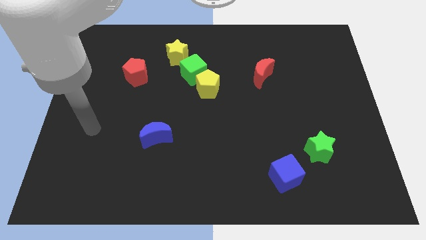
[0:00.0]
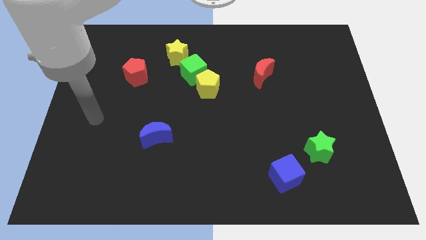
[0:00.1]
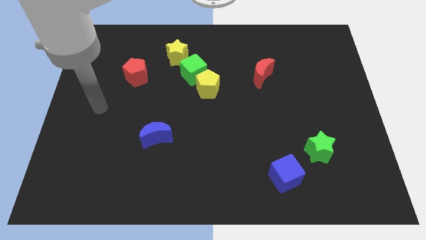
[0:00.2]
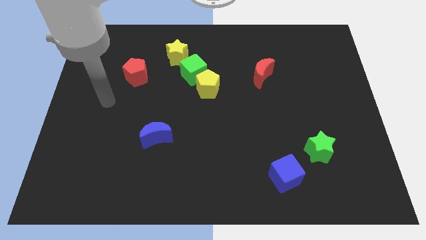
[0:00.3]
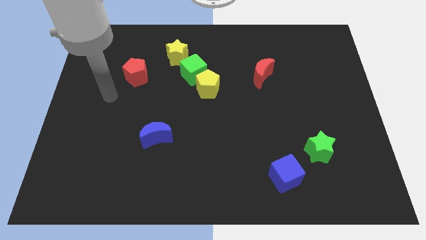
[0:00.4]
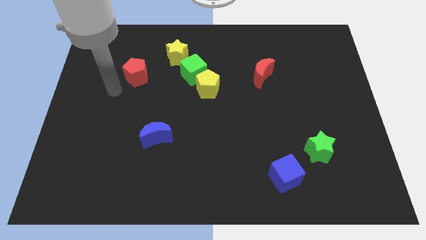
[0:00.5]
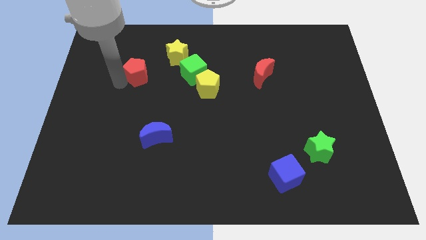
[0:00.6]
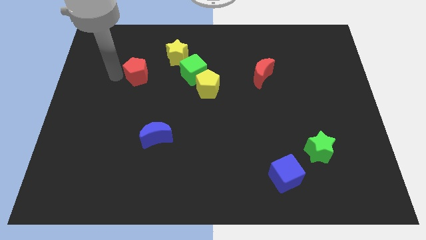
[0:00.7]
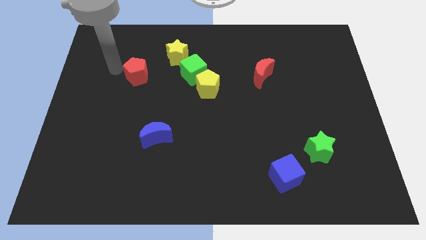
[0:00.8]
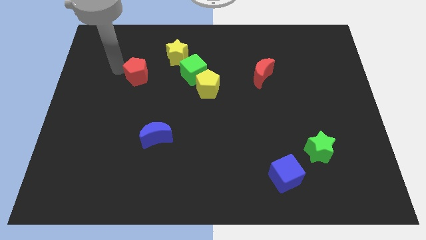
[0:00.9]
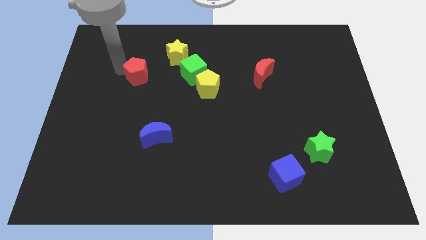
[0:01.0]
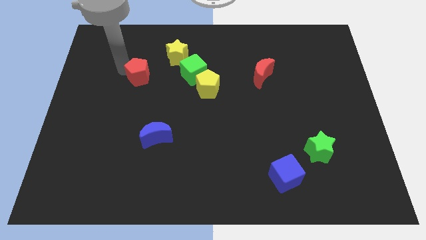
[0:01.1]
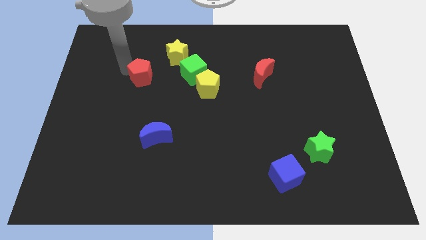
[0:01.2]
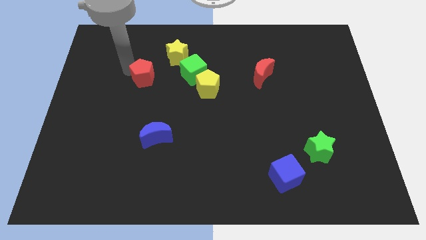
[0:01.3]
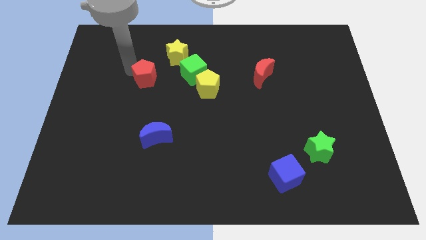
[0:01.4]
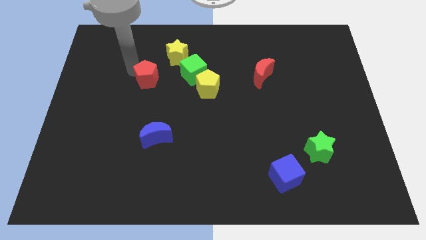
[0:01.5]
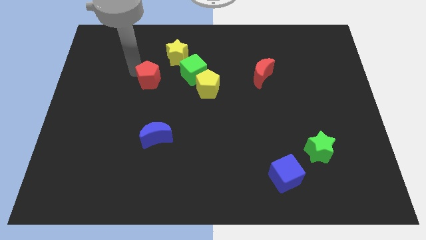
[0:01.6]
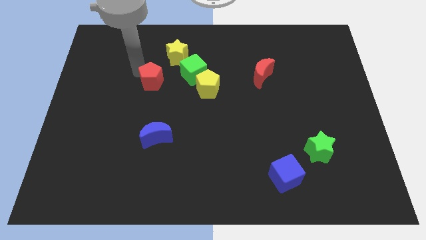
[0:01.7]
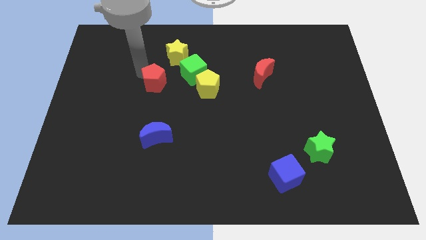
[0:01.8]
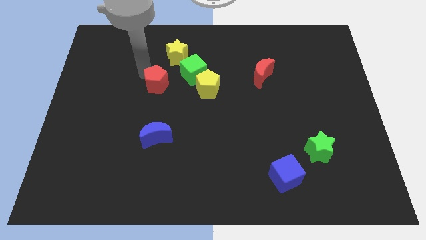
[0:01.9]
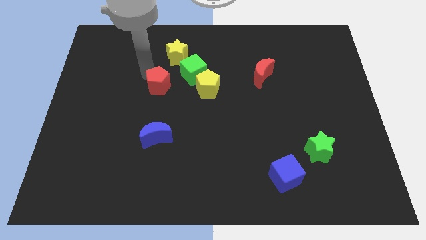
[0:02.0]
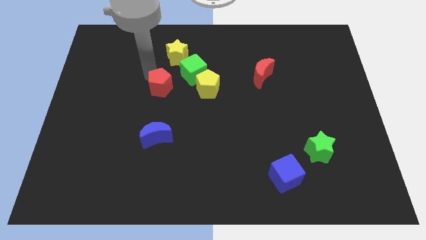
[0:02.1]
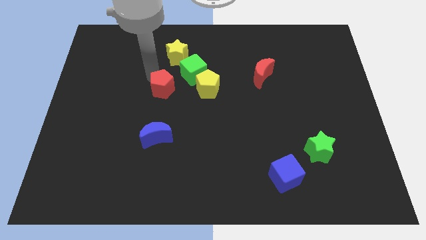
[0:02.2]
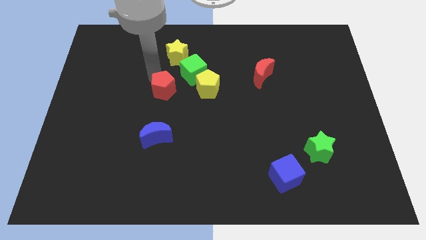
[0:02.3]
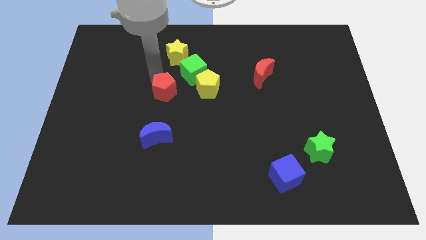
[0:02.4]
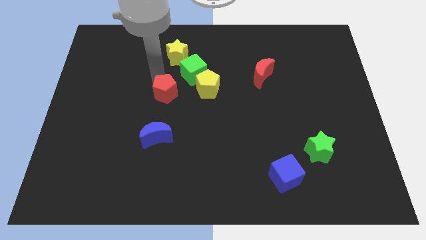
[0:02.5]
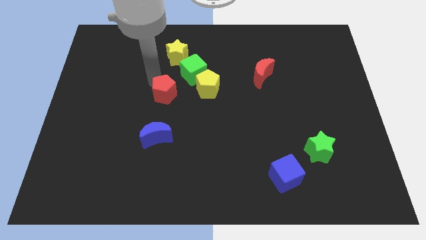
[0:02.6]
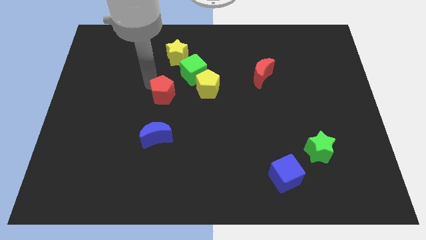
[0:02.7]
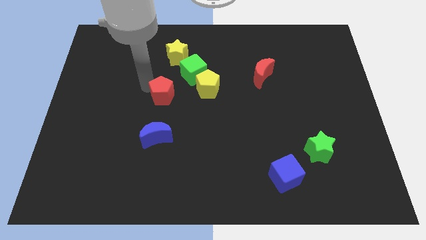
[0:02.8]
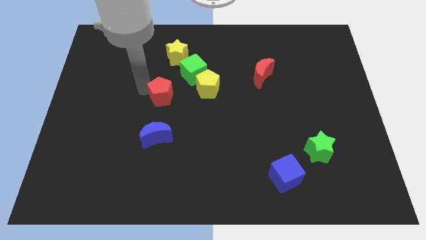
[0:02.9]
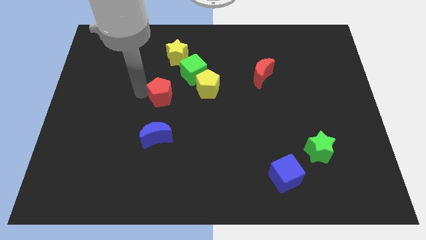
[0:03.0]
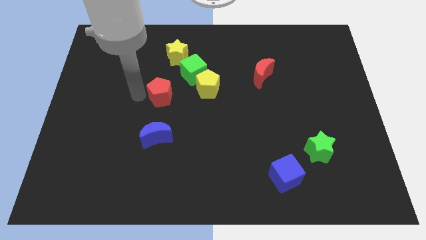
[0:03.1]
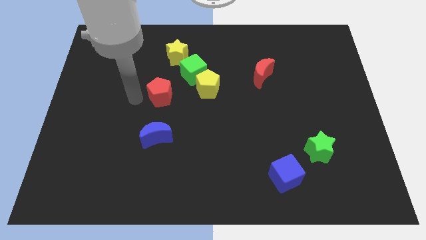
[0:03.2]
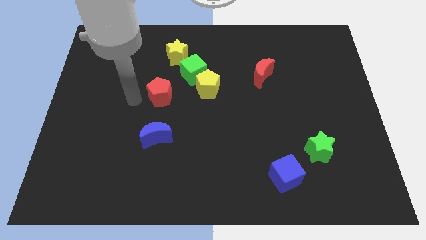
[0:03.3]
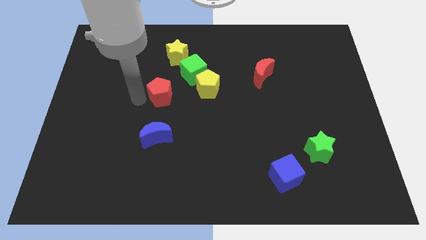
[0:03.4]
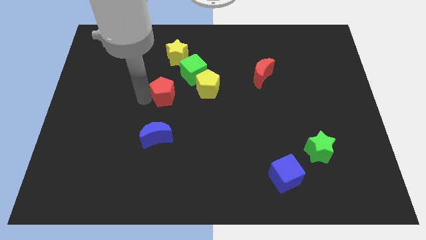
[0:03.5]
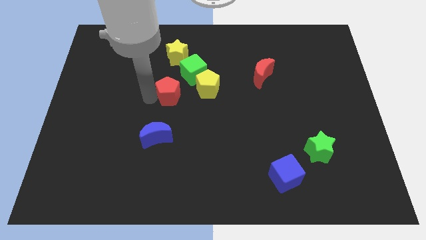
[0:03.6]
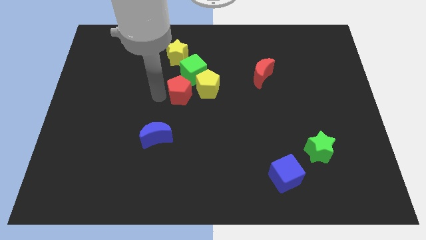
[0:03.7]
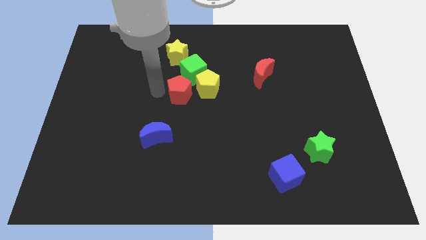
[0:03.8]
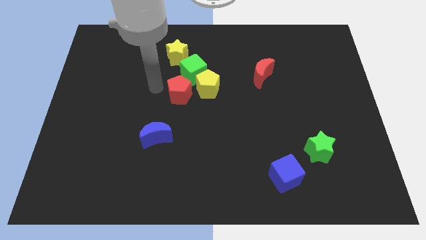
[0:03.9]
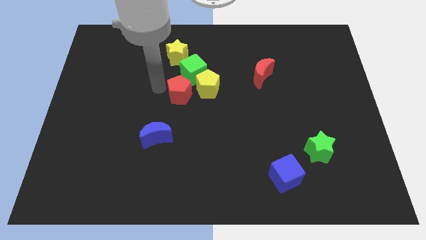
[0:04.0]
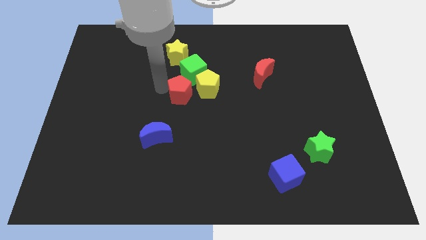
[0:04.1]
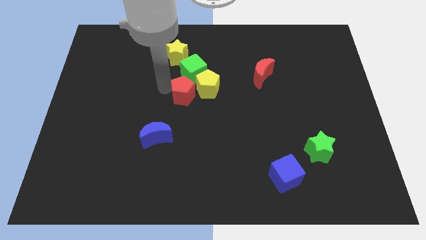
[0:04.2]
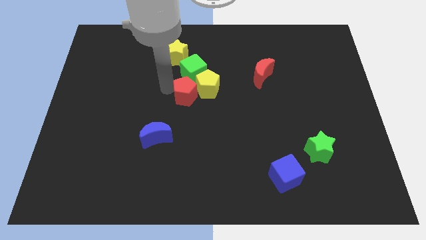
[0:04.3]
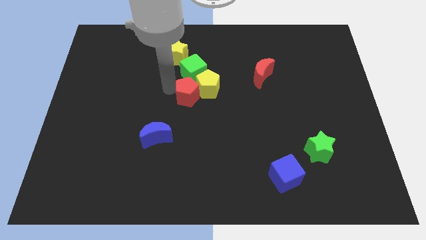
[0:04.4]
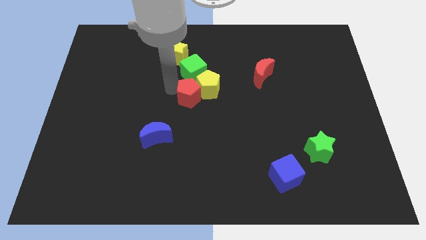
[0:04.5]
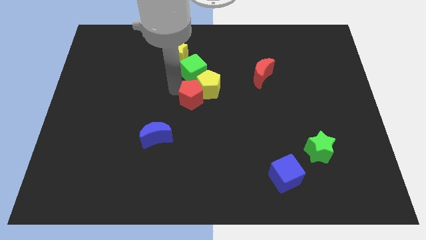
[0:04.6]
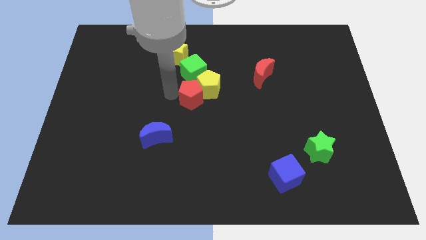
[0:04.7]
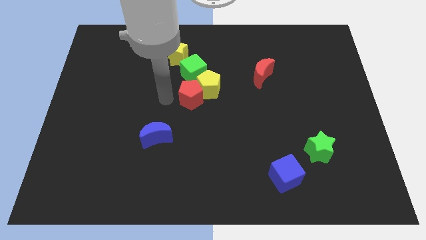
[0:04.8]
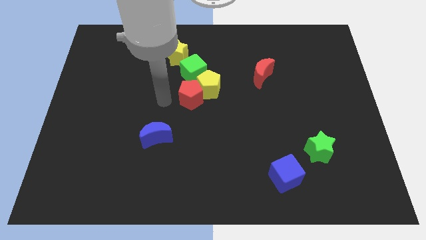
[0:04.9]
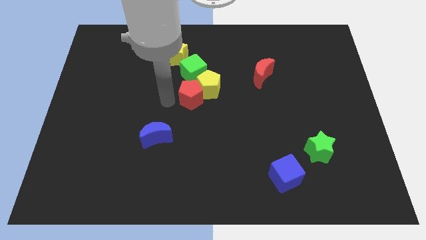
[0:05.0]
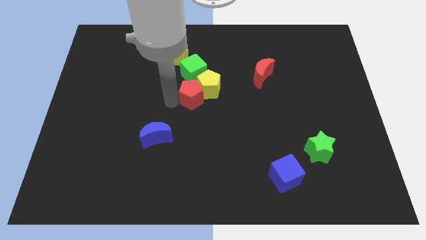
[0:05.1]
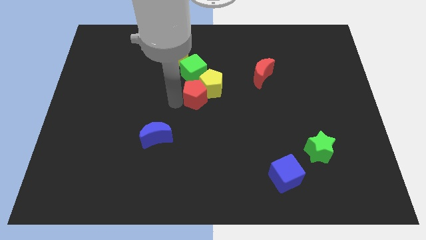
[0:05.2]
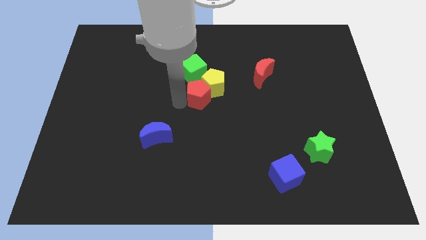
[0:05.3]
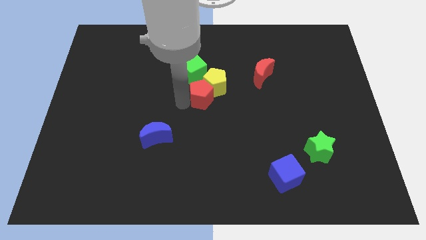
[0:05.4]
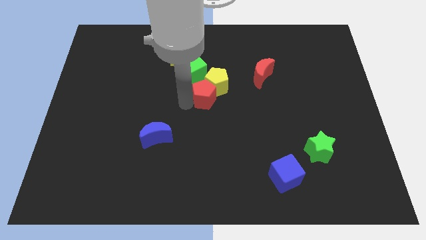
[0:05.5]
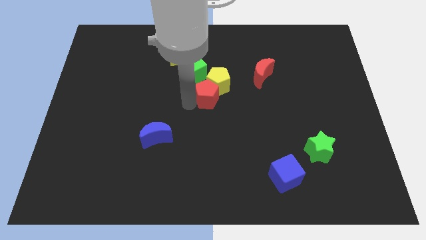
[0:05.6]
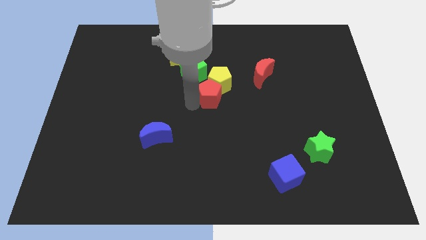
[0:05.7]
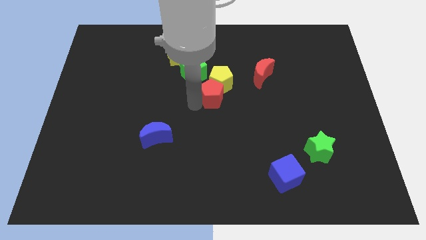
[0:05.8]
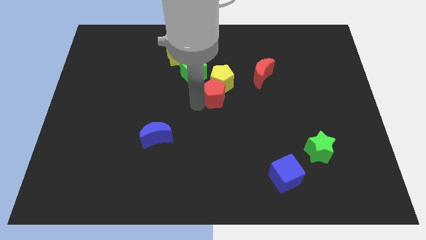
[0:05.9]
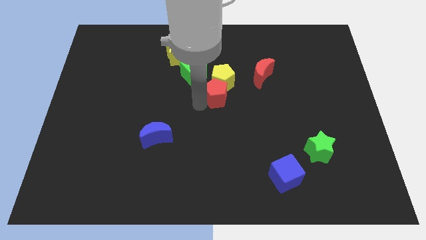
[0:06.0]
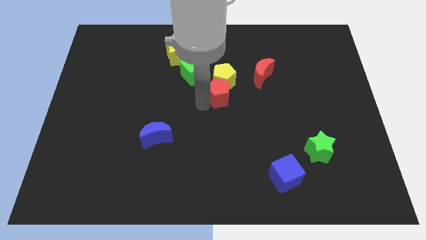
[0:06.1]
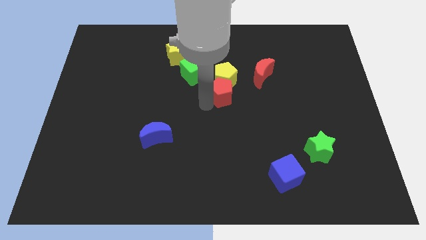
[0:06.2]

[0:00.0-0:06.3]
slide the red pentagon diagonally down and to the left of the red moon

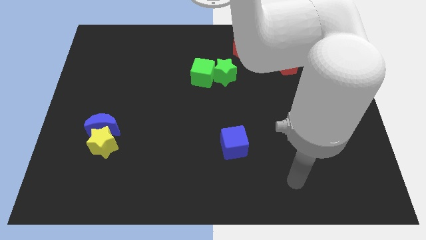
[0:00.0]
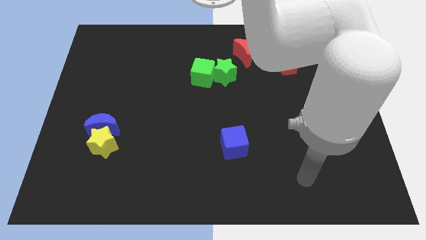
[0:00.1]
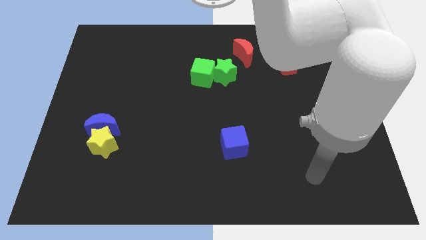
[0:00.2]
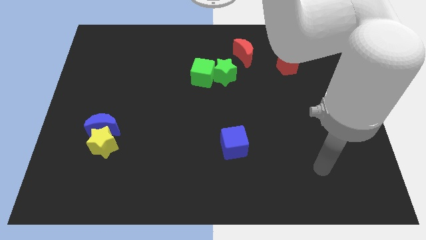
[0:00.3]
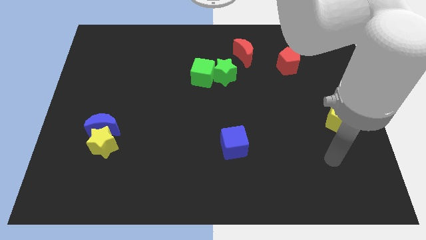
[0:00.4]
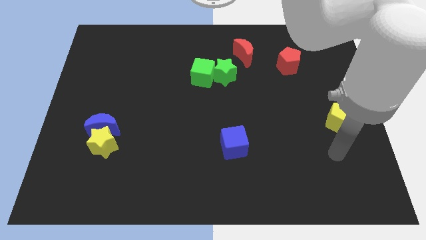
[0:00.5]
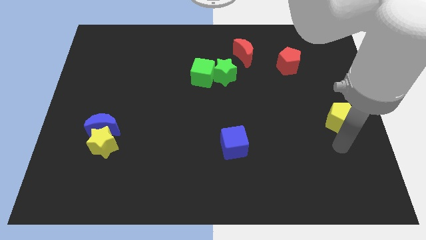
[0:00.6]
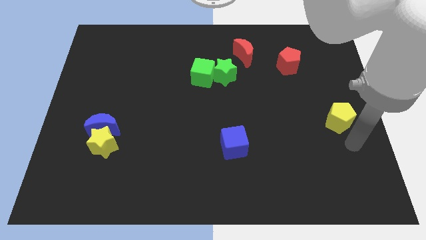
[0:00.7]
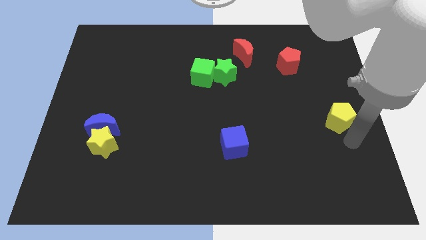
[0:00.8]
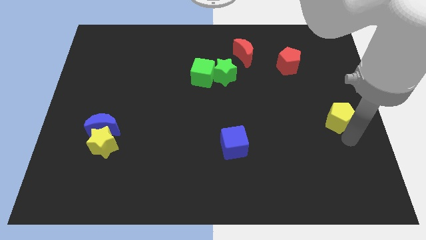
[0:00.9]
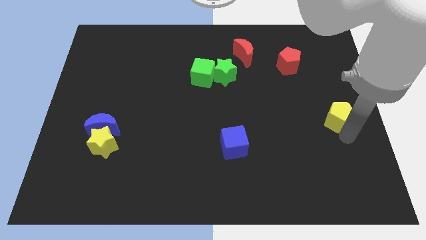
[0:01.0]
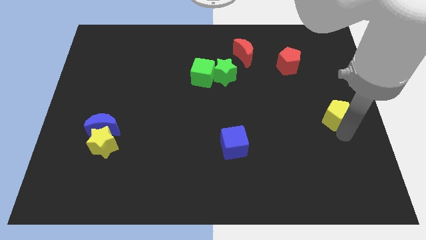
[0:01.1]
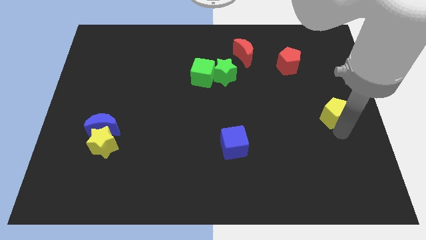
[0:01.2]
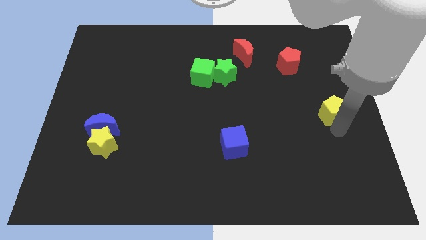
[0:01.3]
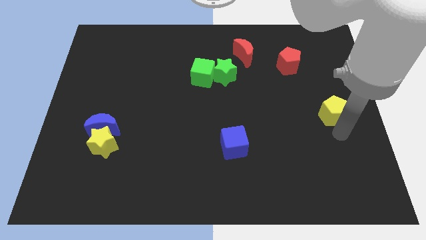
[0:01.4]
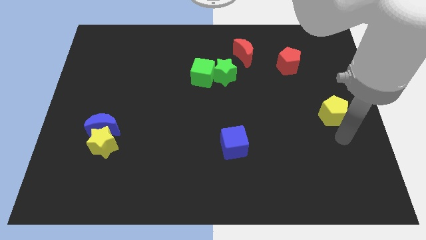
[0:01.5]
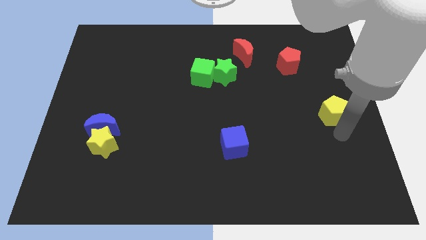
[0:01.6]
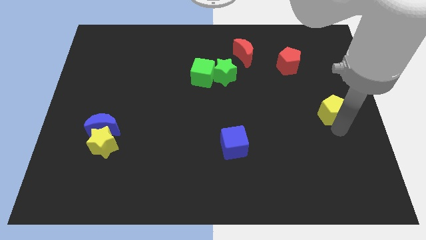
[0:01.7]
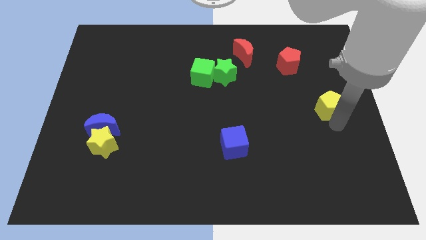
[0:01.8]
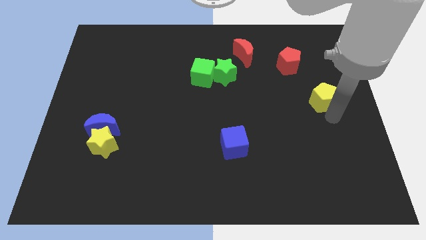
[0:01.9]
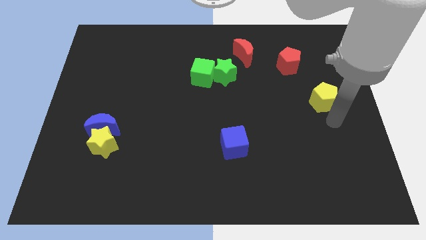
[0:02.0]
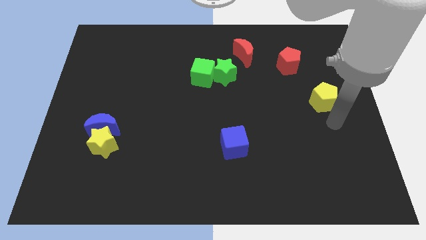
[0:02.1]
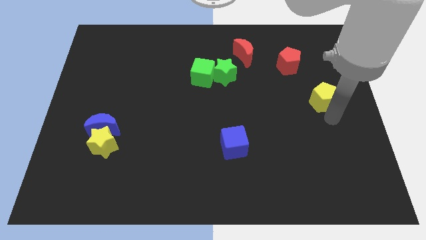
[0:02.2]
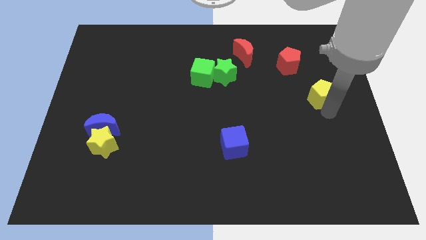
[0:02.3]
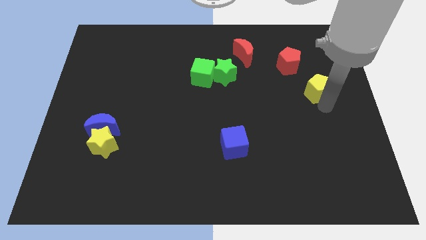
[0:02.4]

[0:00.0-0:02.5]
move the yellow pentagon to the bottom right side of the red pentagon
